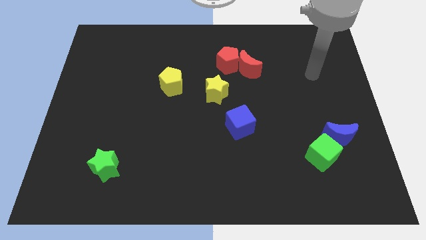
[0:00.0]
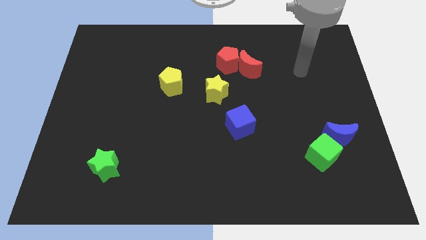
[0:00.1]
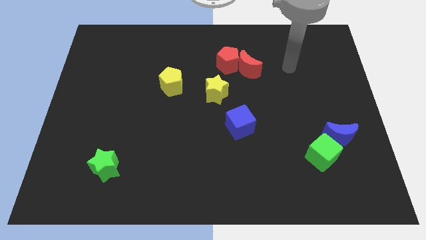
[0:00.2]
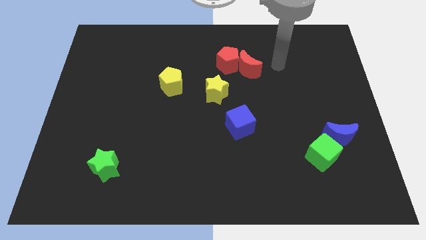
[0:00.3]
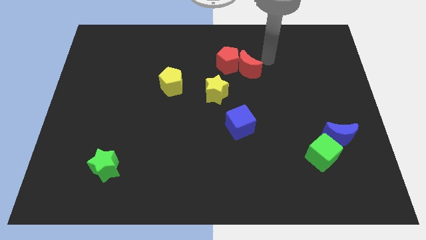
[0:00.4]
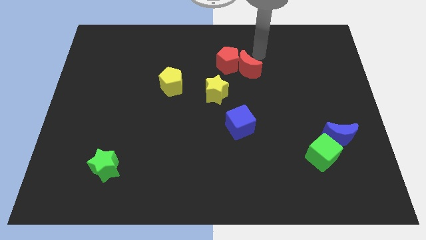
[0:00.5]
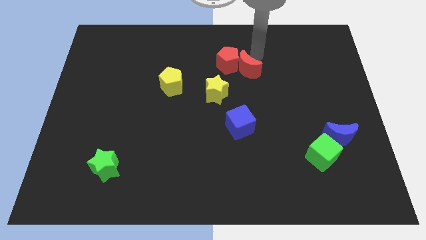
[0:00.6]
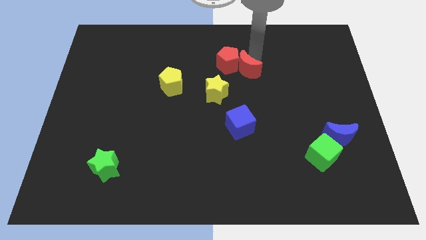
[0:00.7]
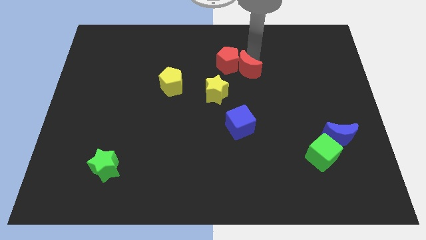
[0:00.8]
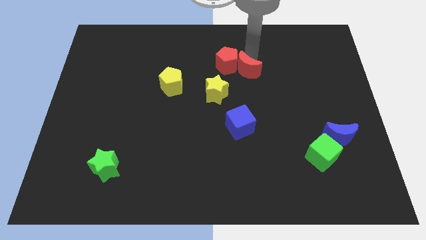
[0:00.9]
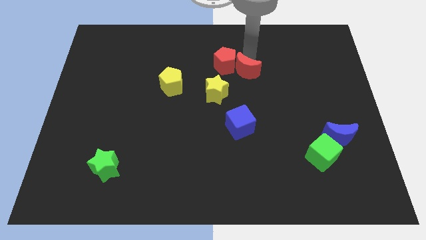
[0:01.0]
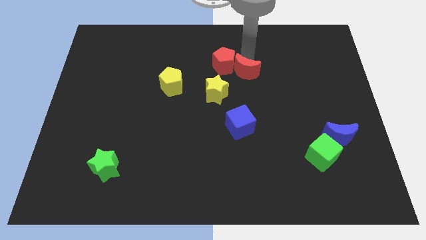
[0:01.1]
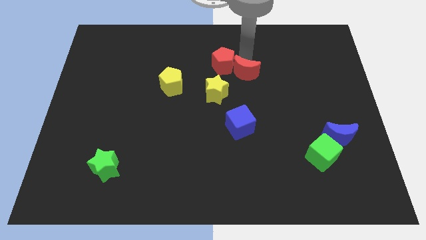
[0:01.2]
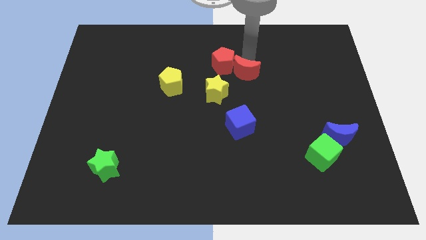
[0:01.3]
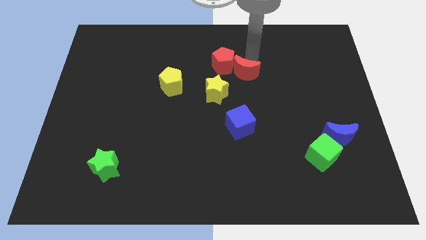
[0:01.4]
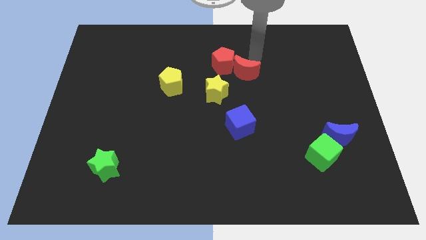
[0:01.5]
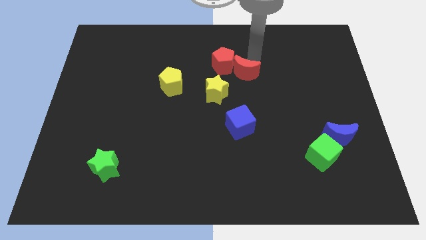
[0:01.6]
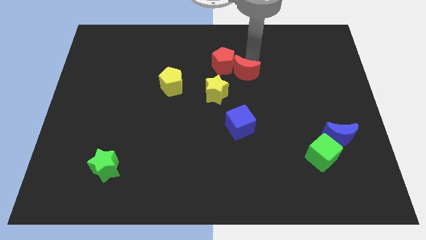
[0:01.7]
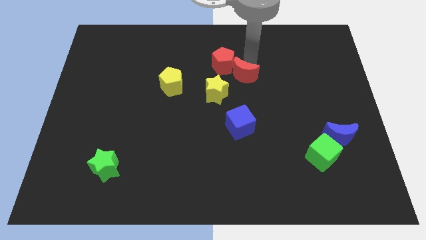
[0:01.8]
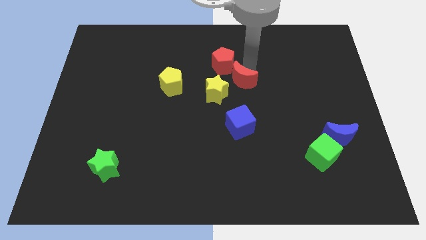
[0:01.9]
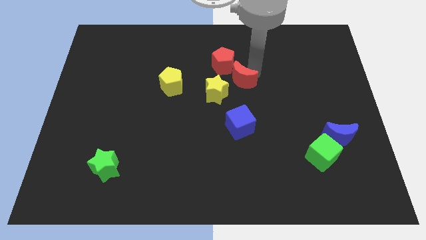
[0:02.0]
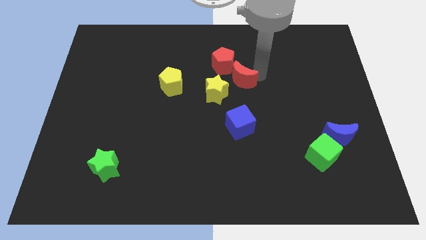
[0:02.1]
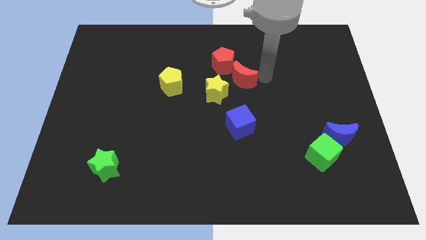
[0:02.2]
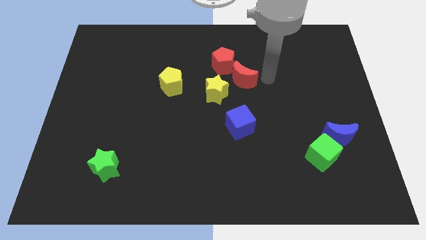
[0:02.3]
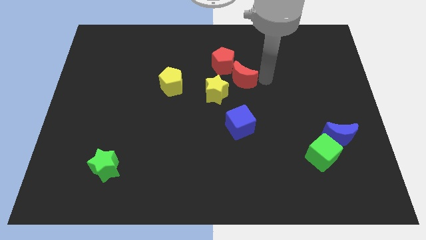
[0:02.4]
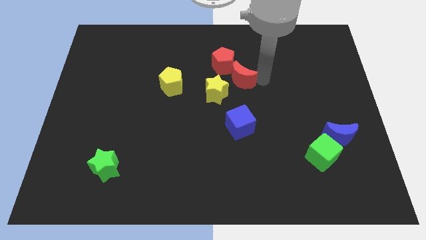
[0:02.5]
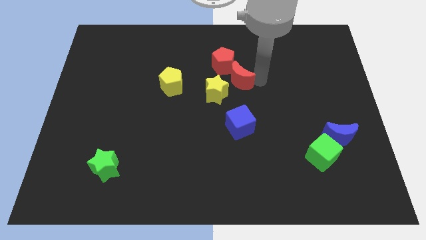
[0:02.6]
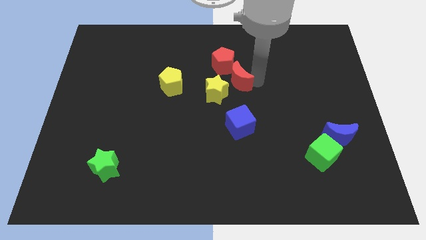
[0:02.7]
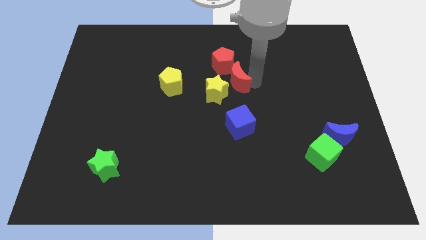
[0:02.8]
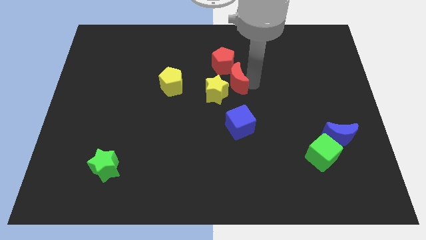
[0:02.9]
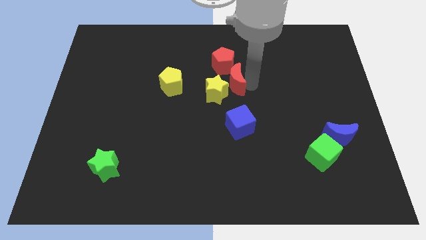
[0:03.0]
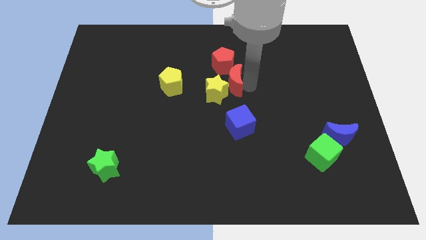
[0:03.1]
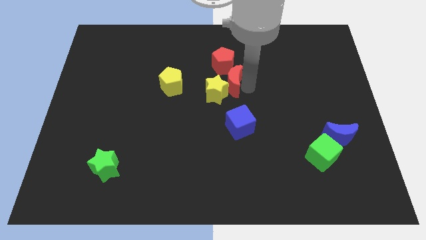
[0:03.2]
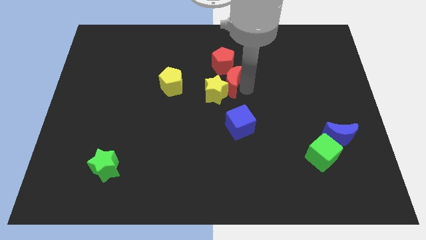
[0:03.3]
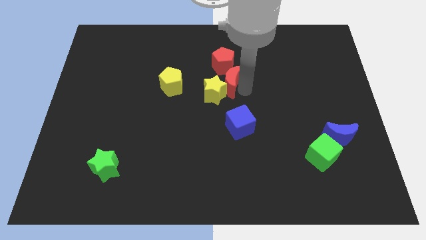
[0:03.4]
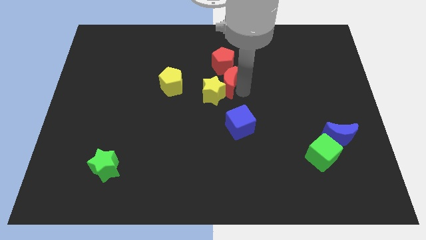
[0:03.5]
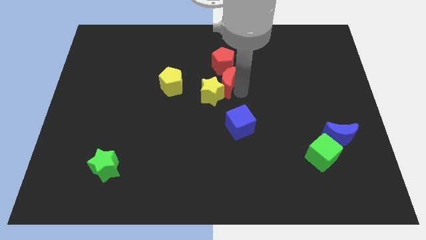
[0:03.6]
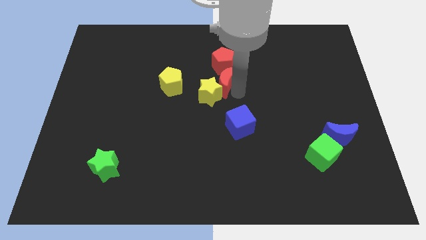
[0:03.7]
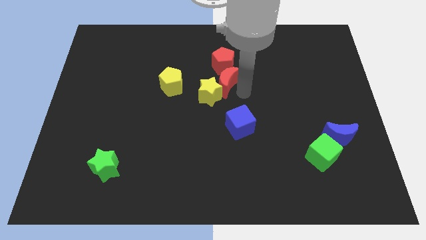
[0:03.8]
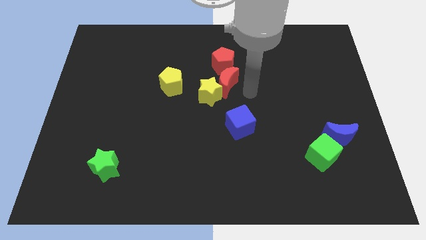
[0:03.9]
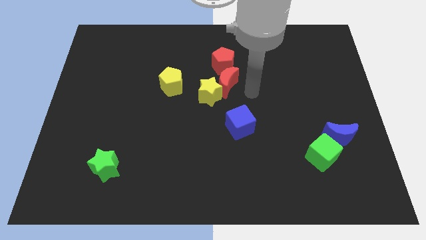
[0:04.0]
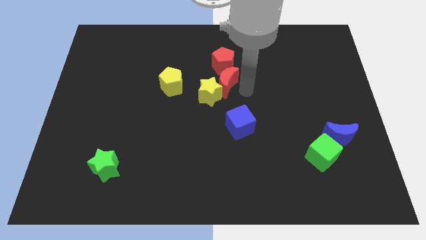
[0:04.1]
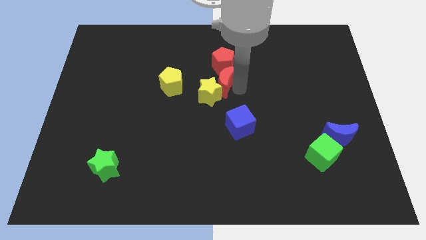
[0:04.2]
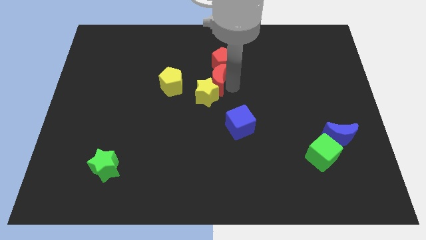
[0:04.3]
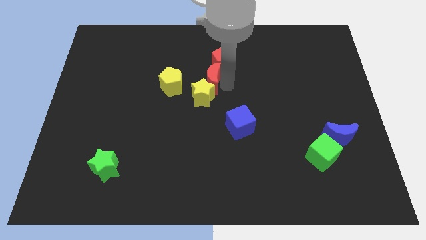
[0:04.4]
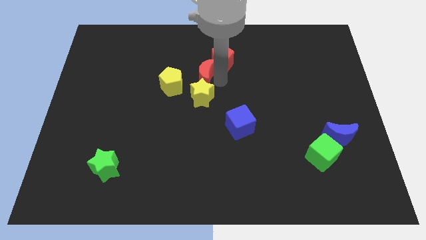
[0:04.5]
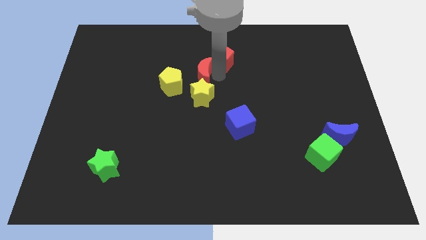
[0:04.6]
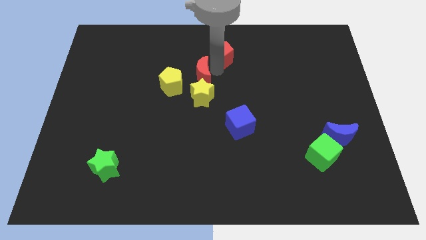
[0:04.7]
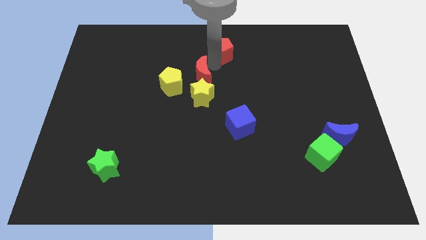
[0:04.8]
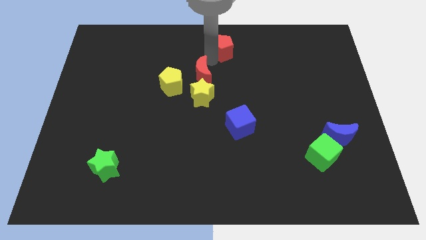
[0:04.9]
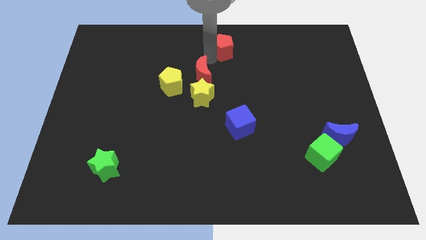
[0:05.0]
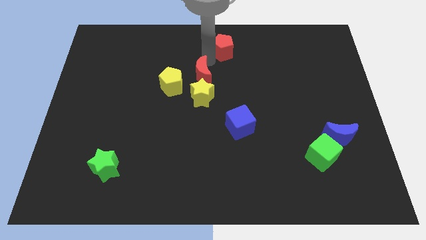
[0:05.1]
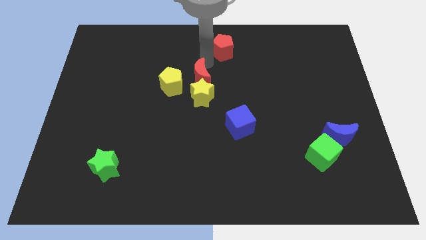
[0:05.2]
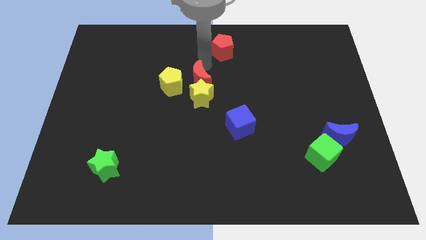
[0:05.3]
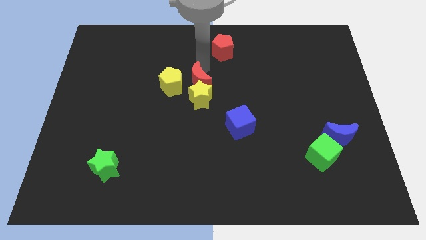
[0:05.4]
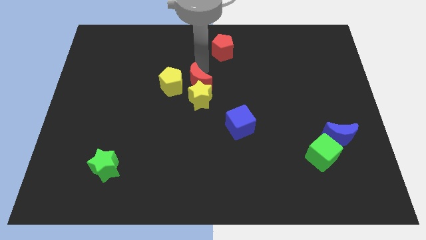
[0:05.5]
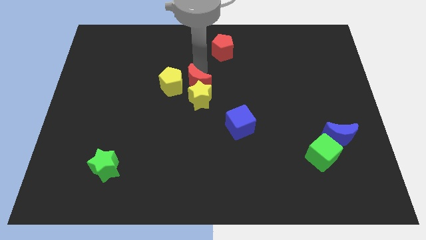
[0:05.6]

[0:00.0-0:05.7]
move the red moon diagonally down and to the right of the yellow pentagon

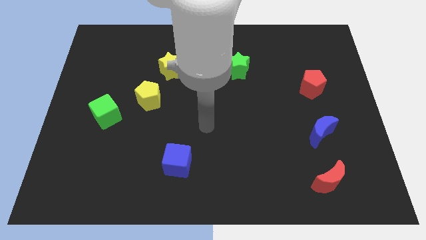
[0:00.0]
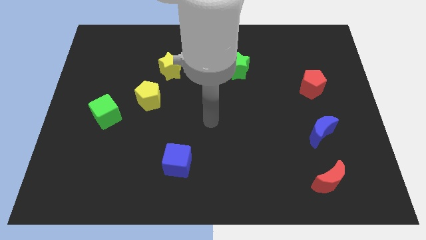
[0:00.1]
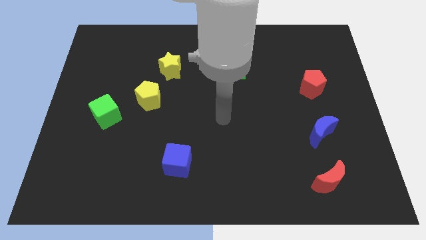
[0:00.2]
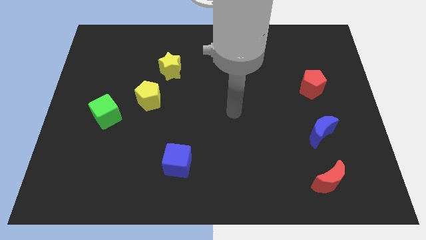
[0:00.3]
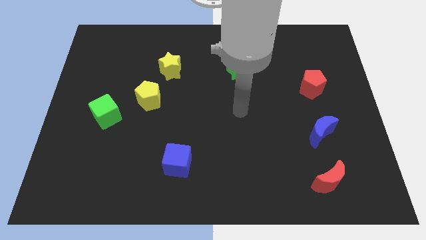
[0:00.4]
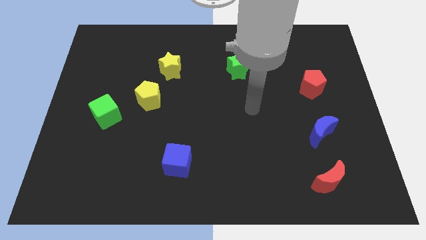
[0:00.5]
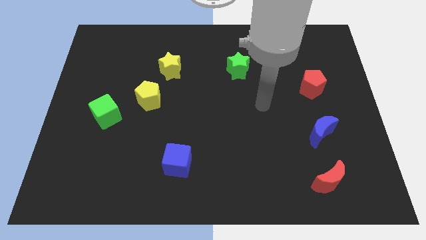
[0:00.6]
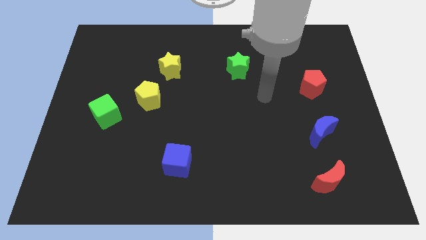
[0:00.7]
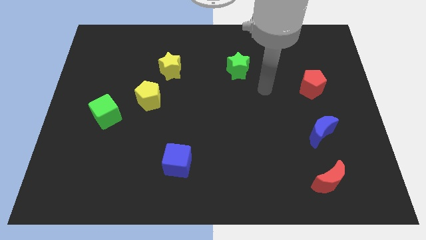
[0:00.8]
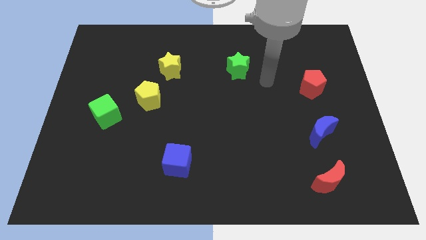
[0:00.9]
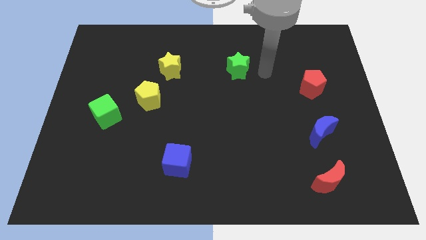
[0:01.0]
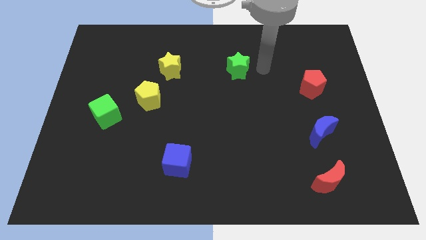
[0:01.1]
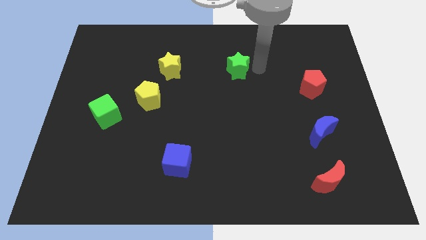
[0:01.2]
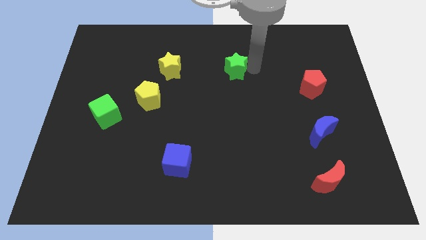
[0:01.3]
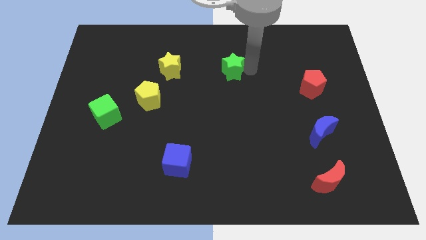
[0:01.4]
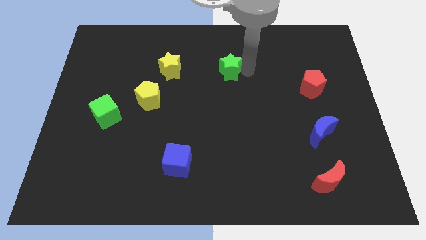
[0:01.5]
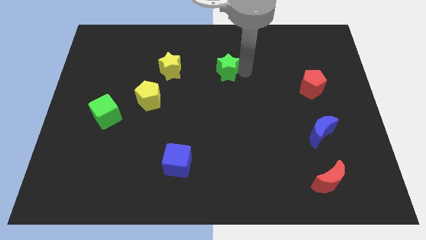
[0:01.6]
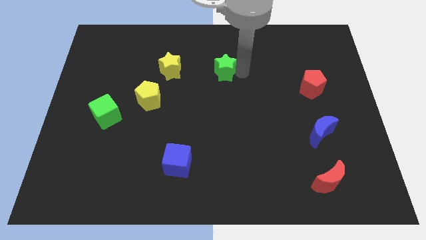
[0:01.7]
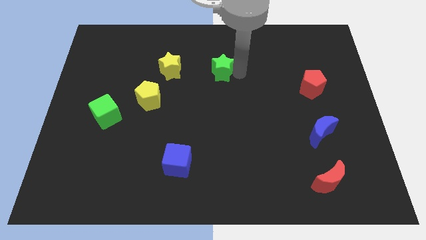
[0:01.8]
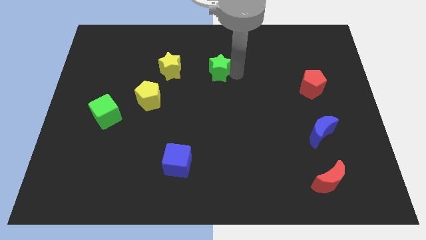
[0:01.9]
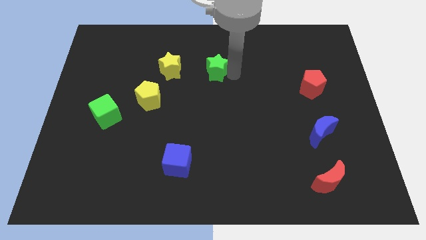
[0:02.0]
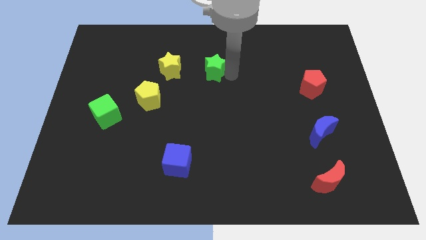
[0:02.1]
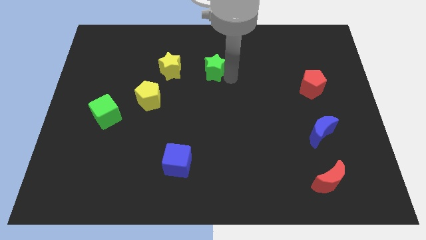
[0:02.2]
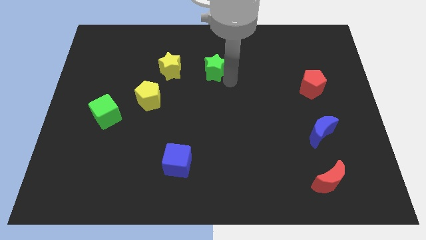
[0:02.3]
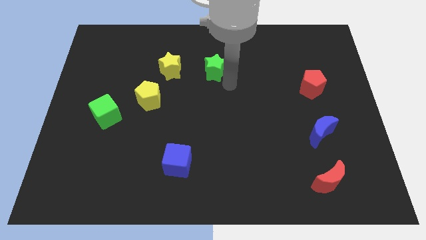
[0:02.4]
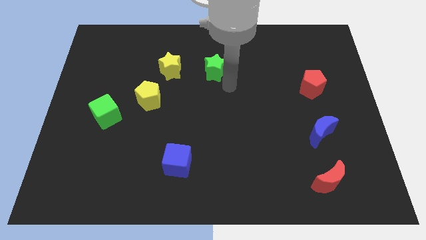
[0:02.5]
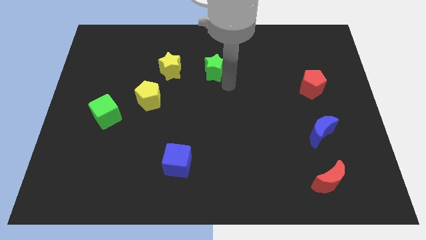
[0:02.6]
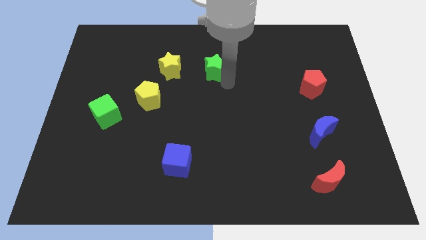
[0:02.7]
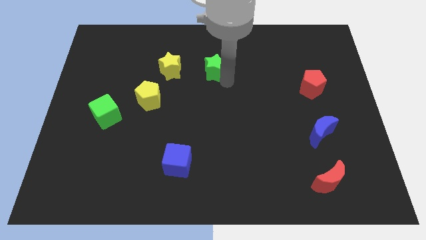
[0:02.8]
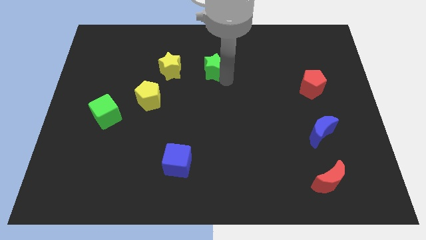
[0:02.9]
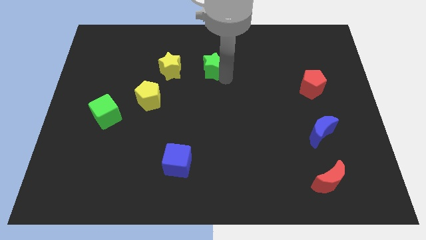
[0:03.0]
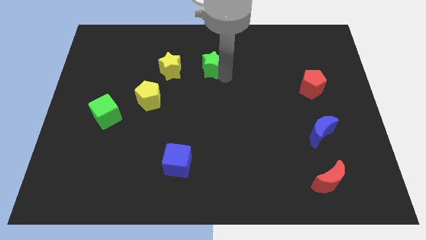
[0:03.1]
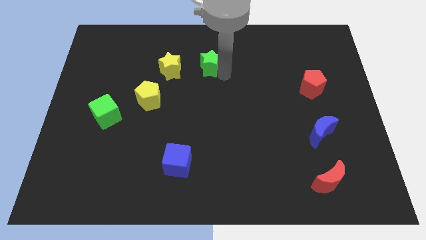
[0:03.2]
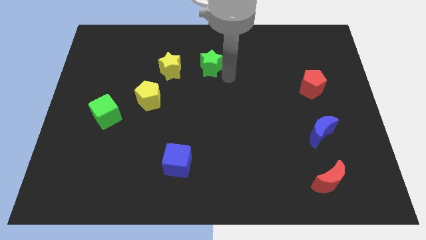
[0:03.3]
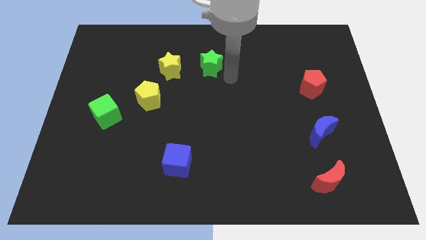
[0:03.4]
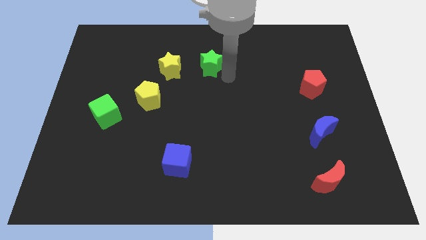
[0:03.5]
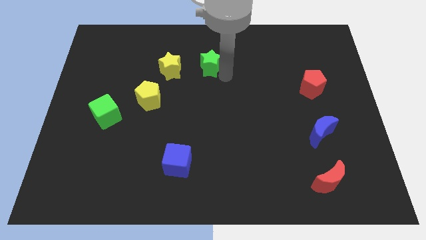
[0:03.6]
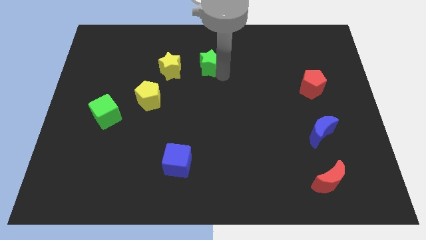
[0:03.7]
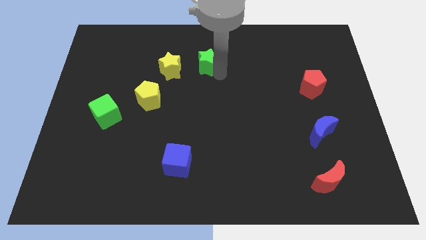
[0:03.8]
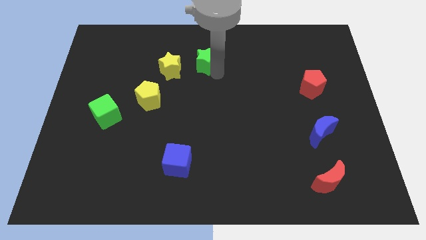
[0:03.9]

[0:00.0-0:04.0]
put the green star to the top right of the yellow star
